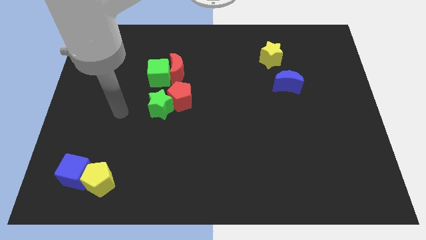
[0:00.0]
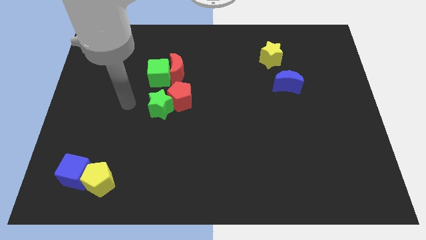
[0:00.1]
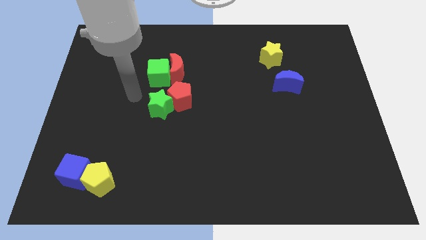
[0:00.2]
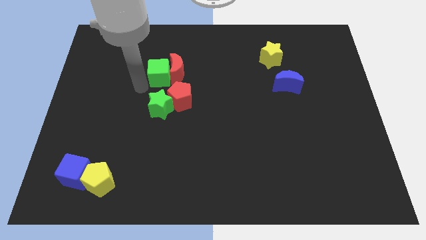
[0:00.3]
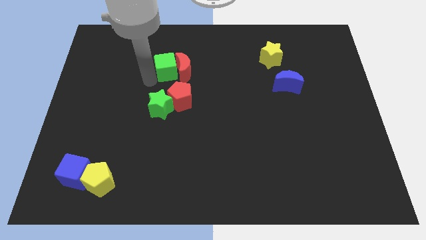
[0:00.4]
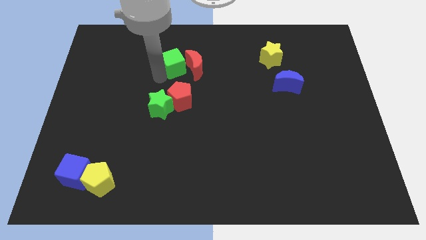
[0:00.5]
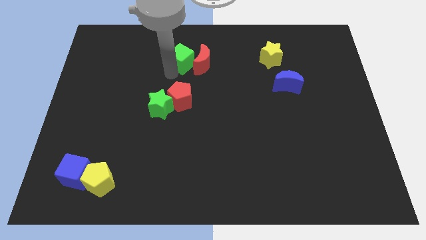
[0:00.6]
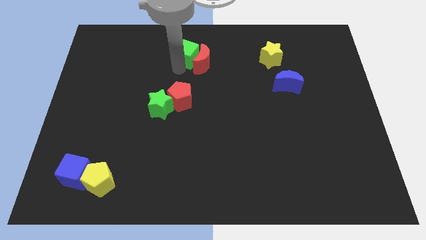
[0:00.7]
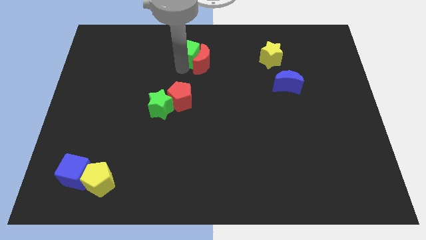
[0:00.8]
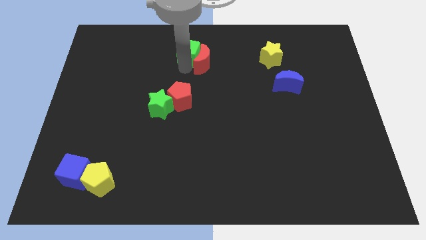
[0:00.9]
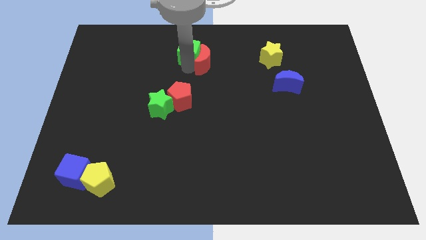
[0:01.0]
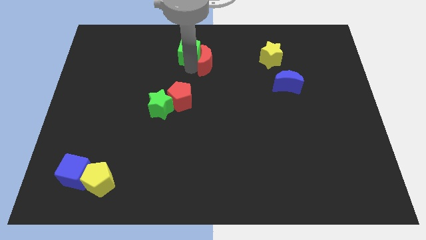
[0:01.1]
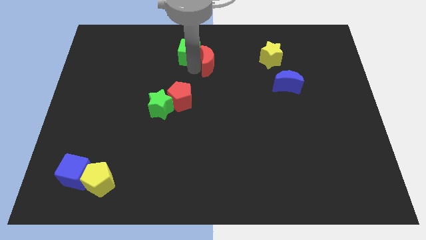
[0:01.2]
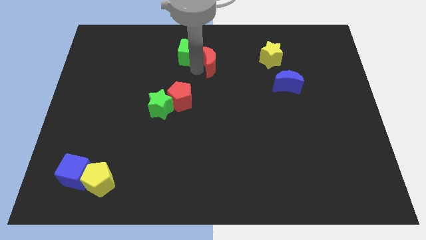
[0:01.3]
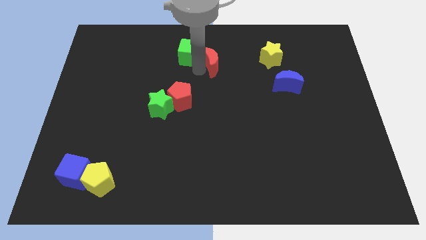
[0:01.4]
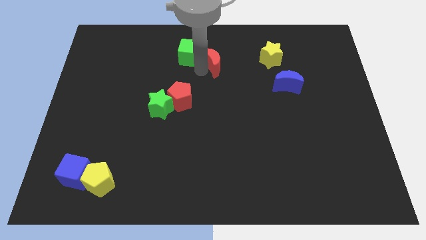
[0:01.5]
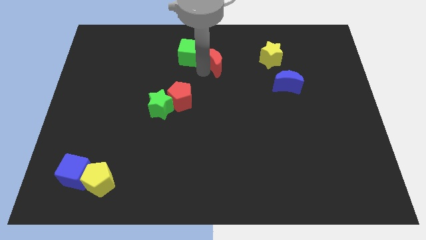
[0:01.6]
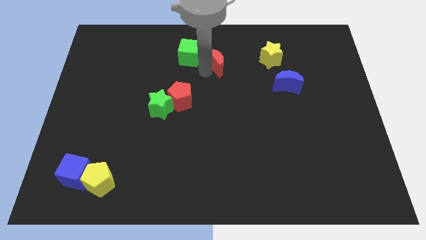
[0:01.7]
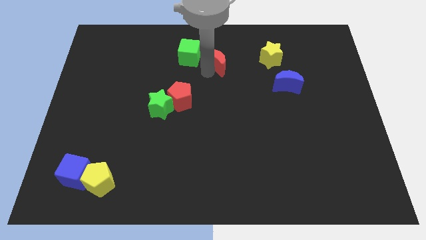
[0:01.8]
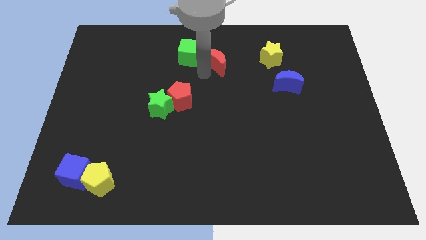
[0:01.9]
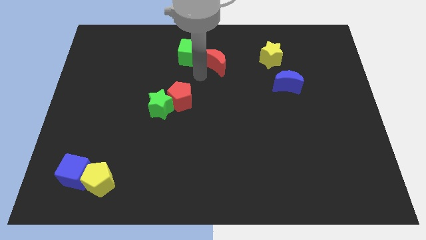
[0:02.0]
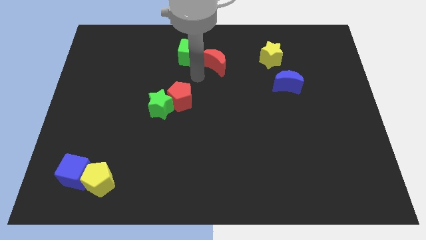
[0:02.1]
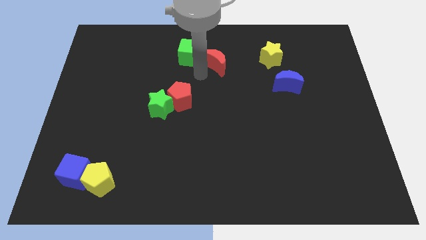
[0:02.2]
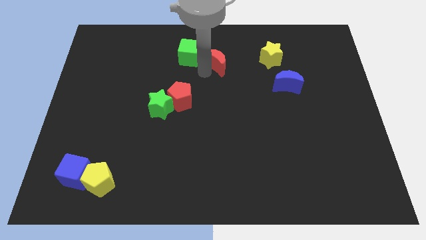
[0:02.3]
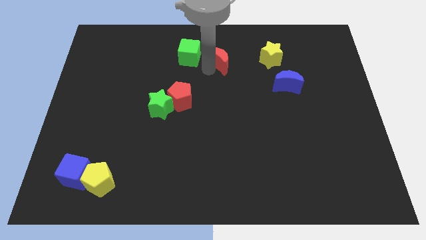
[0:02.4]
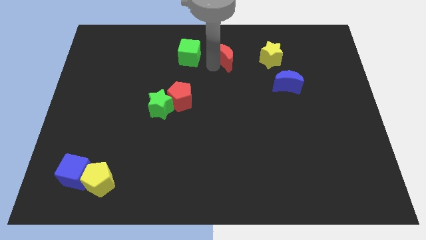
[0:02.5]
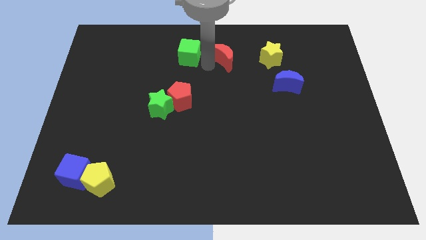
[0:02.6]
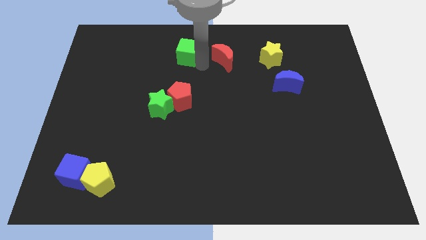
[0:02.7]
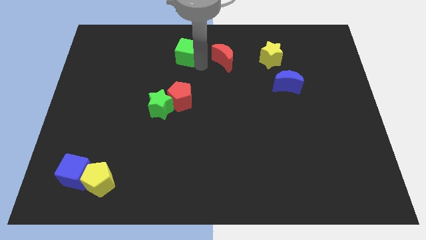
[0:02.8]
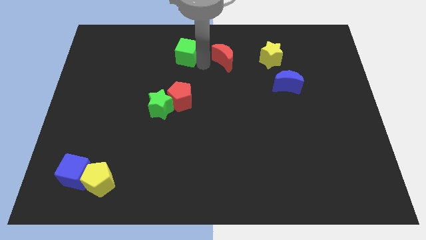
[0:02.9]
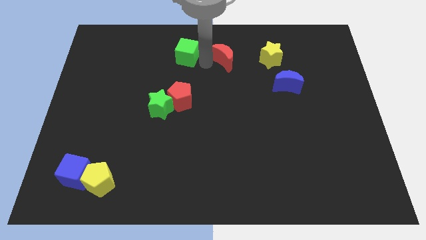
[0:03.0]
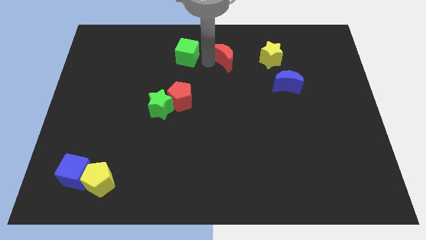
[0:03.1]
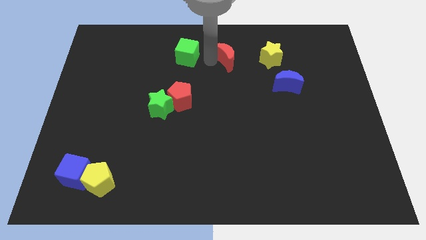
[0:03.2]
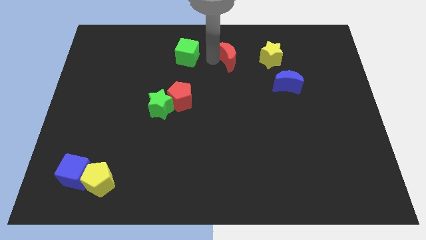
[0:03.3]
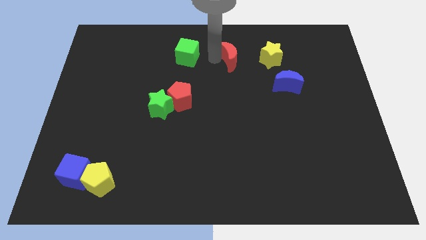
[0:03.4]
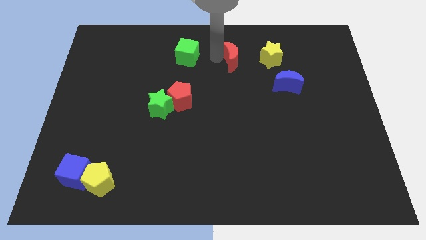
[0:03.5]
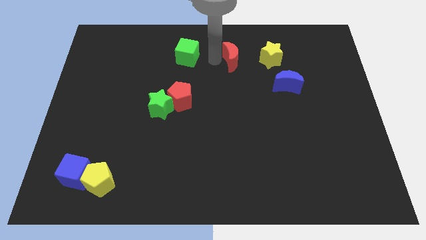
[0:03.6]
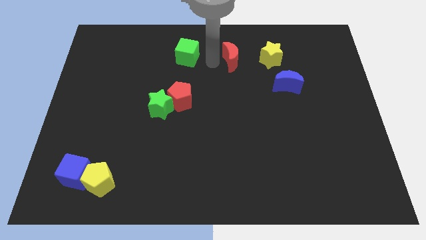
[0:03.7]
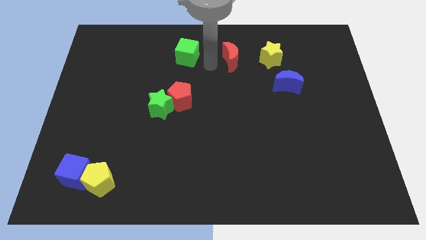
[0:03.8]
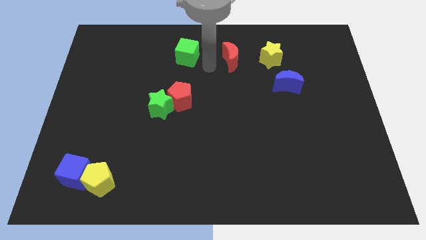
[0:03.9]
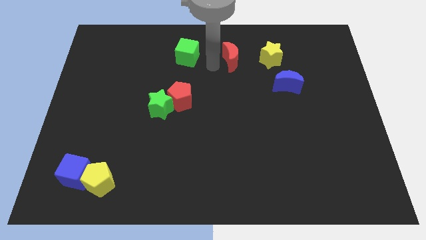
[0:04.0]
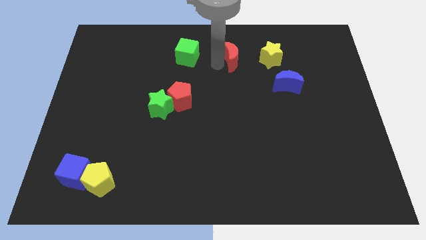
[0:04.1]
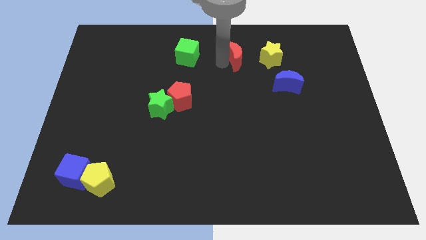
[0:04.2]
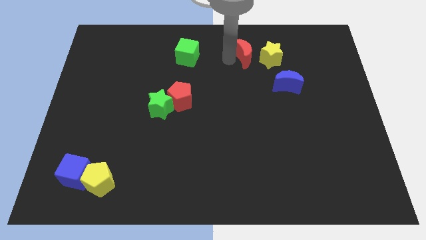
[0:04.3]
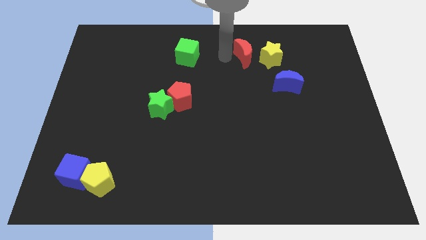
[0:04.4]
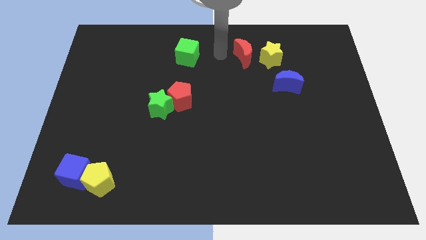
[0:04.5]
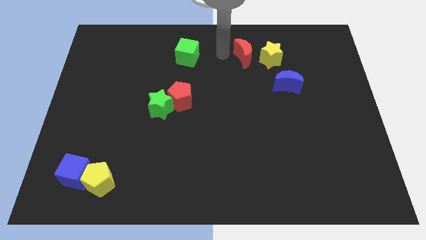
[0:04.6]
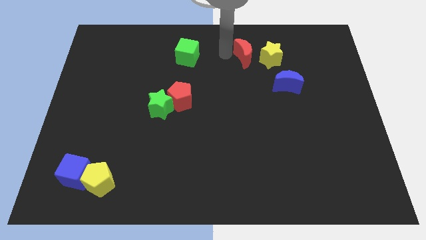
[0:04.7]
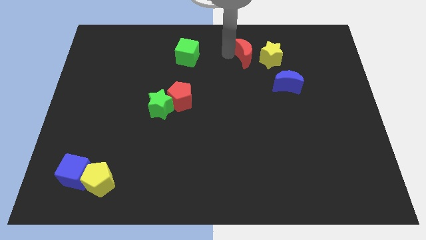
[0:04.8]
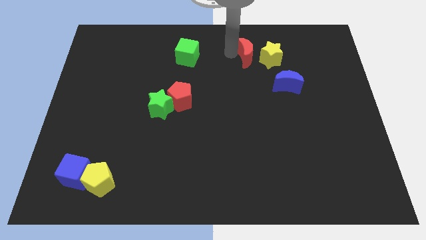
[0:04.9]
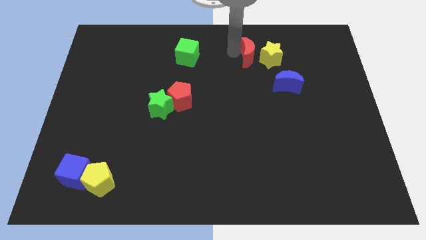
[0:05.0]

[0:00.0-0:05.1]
move the red moon to the yellow star

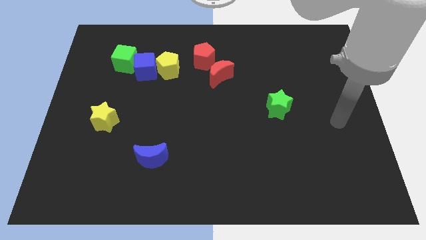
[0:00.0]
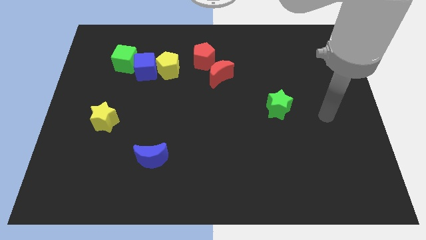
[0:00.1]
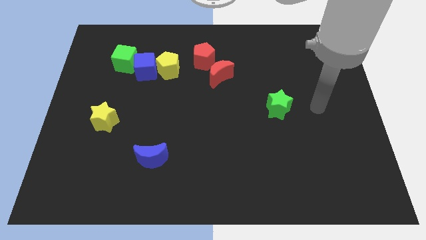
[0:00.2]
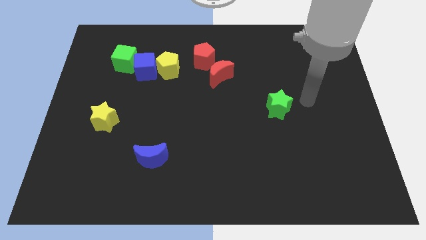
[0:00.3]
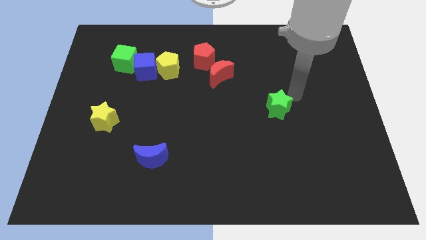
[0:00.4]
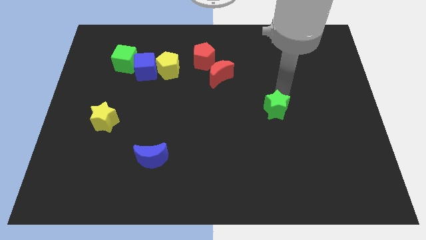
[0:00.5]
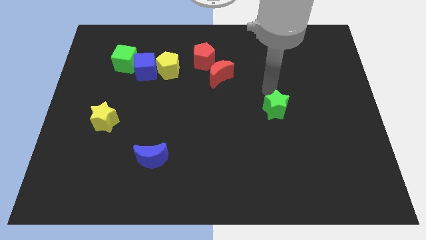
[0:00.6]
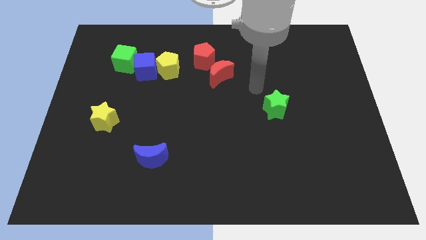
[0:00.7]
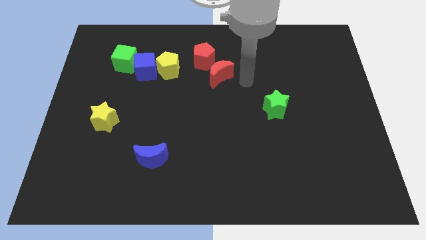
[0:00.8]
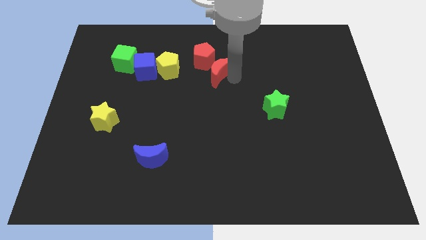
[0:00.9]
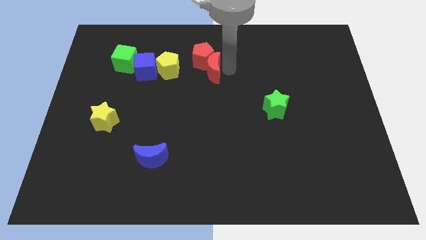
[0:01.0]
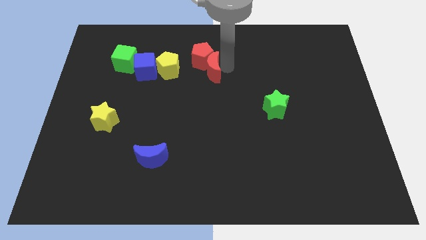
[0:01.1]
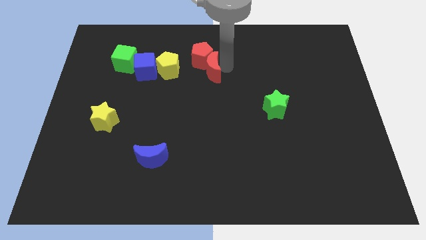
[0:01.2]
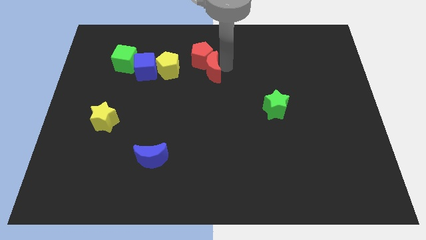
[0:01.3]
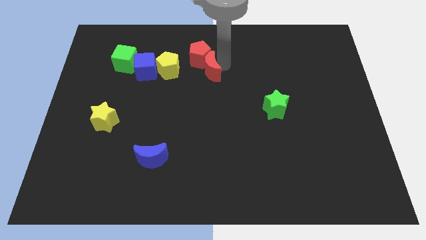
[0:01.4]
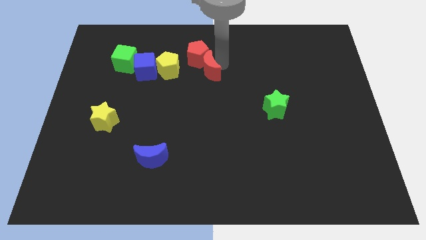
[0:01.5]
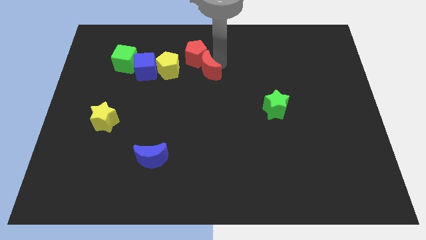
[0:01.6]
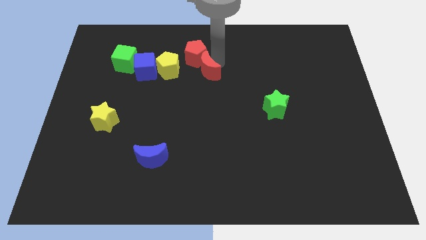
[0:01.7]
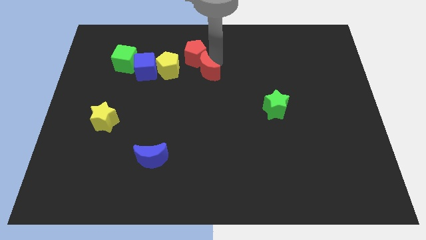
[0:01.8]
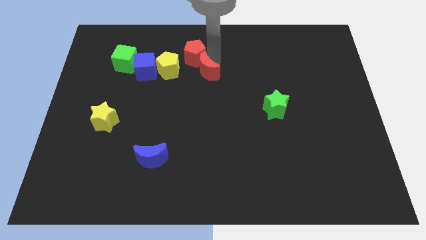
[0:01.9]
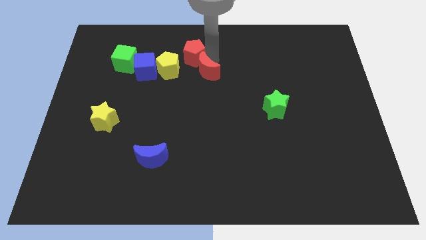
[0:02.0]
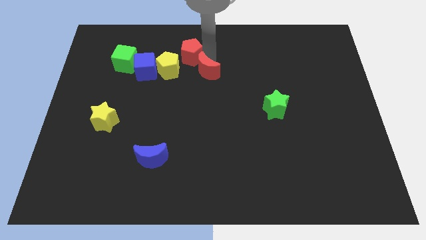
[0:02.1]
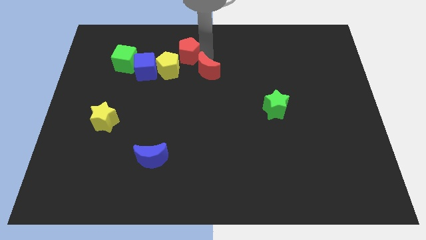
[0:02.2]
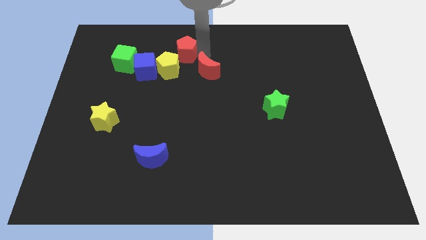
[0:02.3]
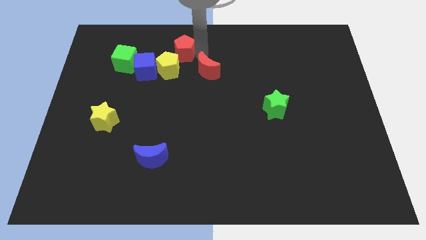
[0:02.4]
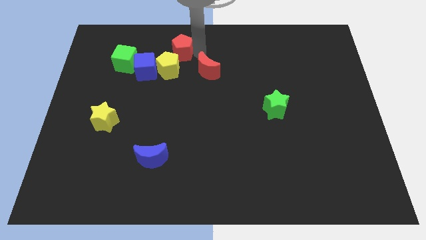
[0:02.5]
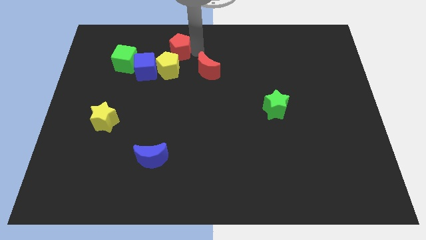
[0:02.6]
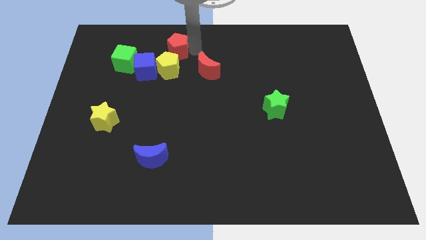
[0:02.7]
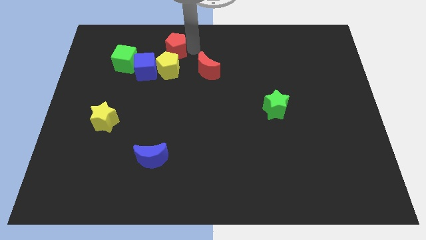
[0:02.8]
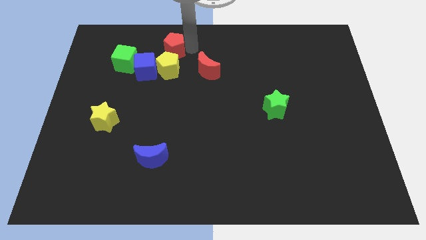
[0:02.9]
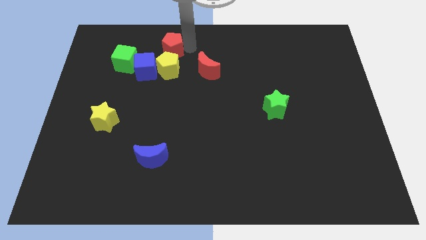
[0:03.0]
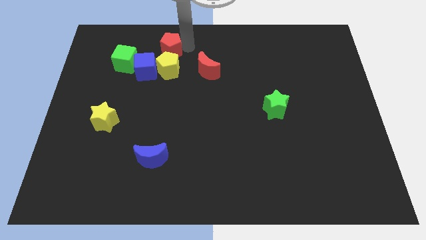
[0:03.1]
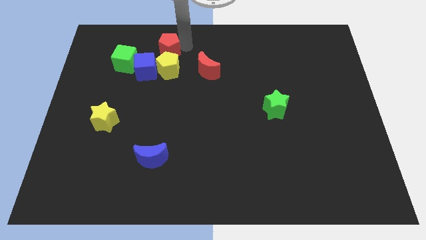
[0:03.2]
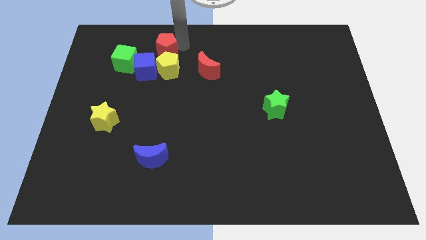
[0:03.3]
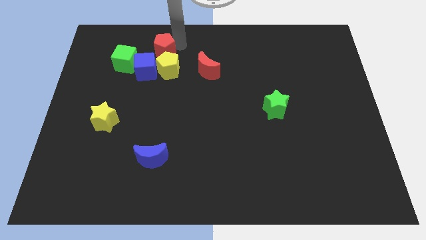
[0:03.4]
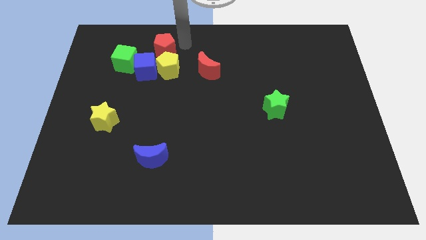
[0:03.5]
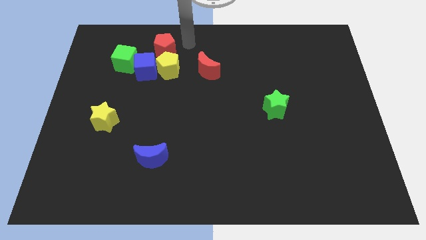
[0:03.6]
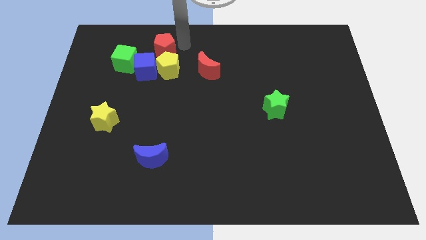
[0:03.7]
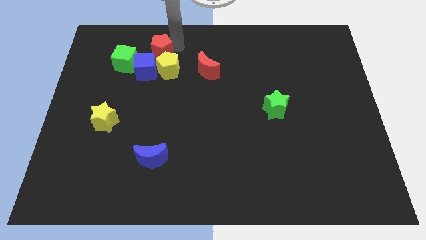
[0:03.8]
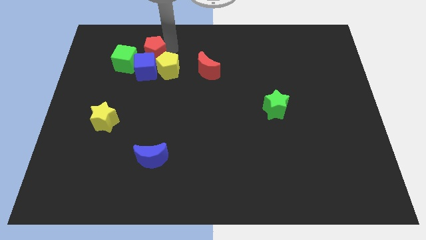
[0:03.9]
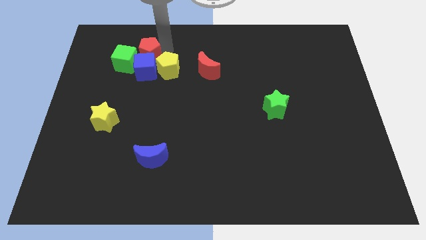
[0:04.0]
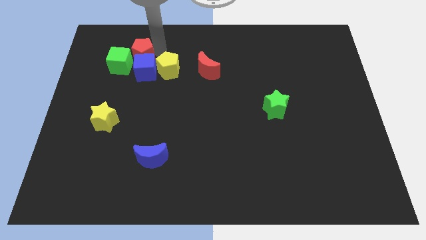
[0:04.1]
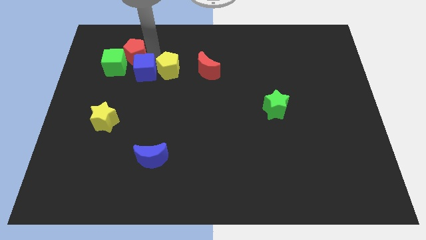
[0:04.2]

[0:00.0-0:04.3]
put the red pentagon close to the green cube
